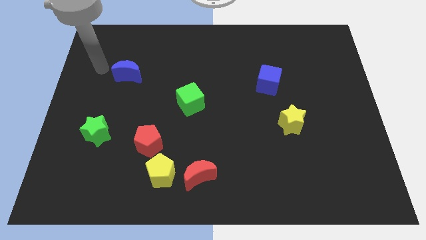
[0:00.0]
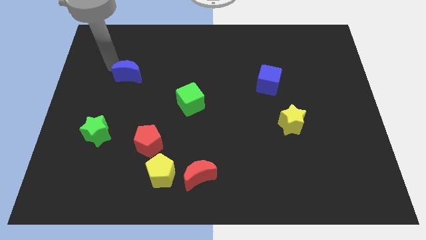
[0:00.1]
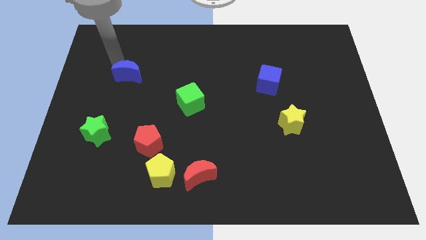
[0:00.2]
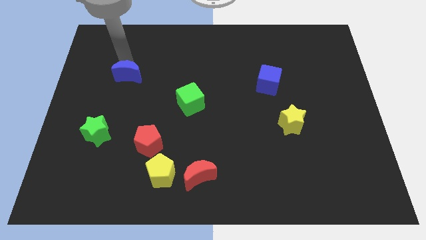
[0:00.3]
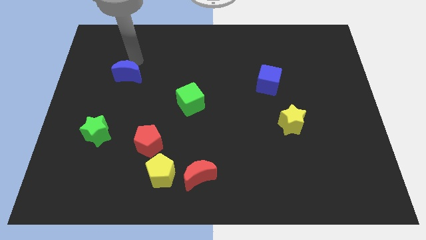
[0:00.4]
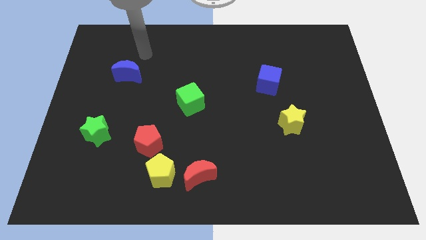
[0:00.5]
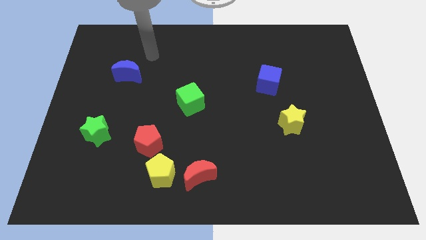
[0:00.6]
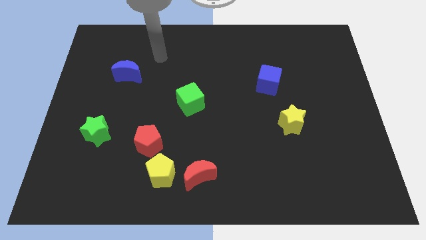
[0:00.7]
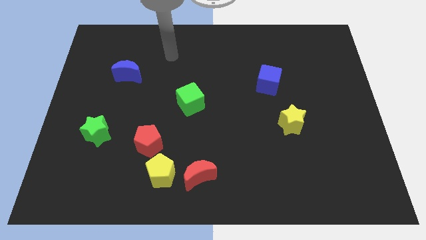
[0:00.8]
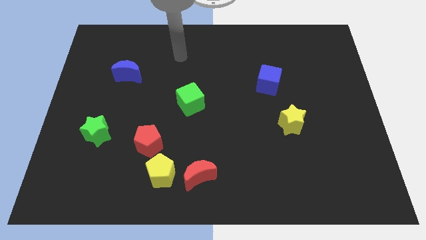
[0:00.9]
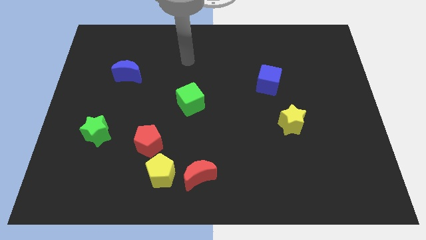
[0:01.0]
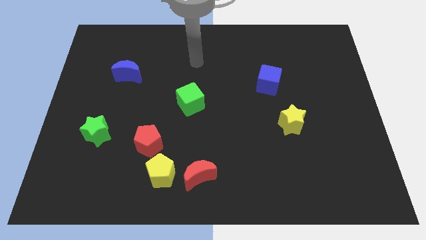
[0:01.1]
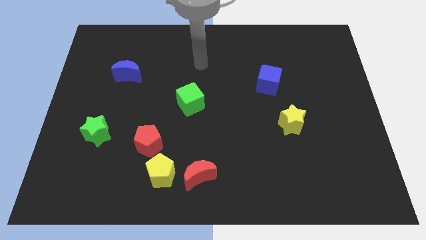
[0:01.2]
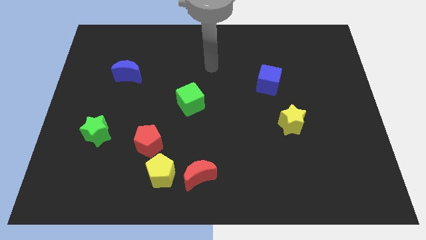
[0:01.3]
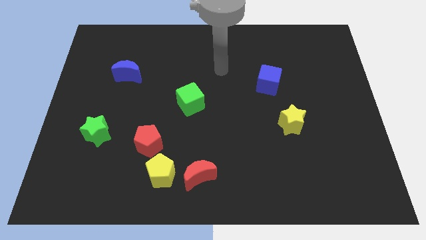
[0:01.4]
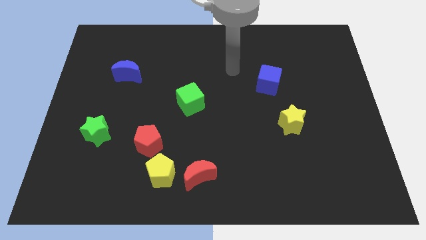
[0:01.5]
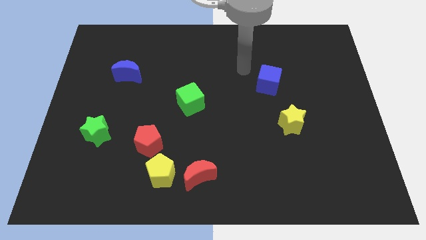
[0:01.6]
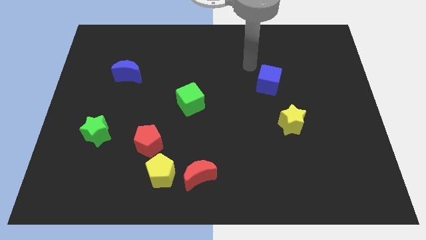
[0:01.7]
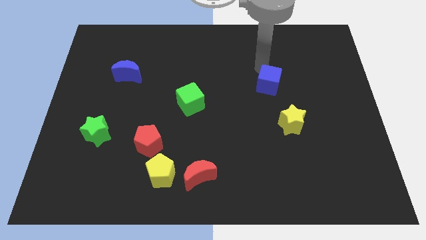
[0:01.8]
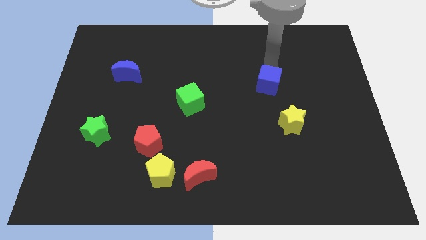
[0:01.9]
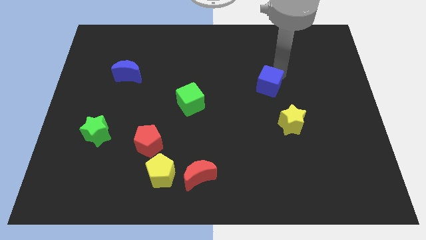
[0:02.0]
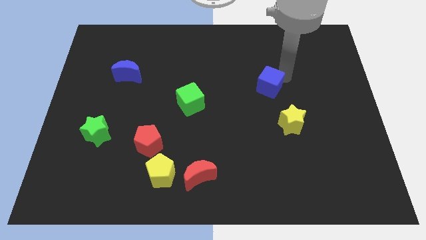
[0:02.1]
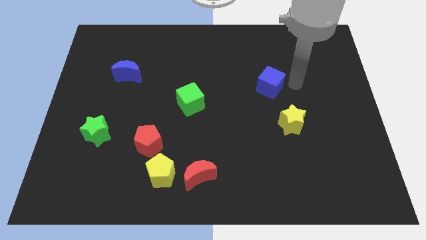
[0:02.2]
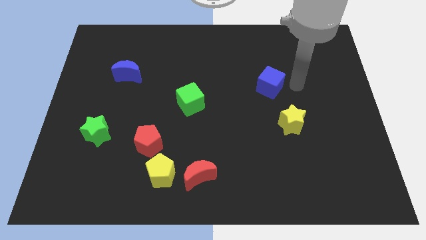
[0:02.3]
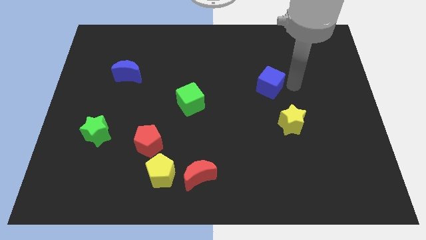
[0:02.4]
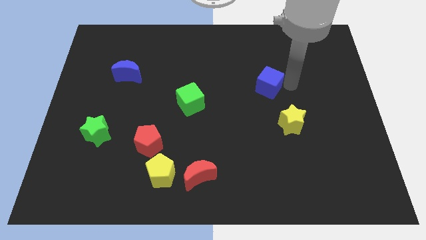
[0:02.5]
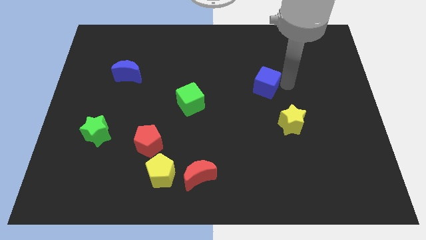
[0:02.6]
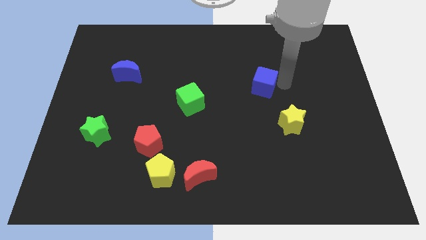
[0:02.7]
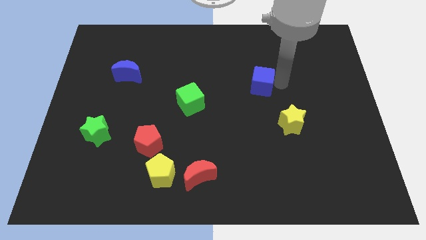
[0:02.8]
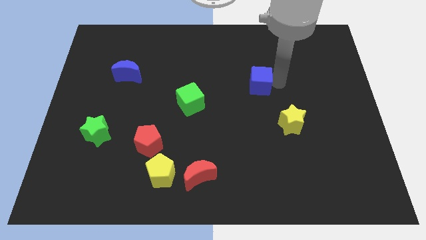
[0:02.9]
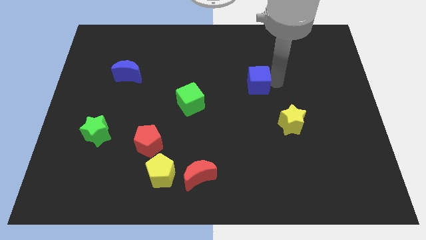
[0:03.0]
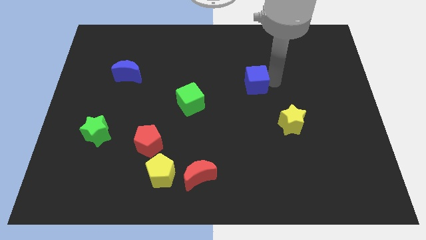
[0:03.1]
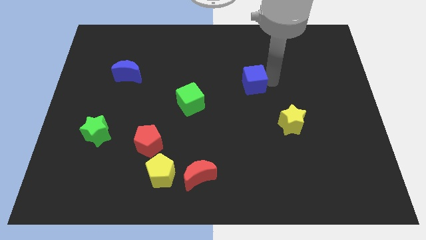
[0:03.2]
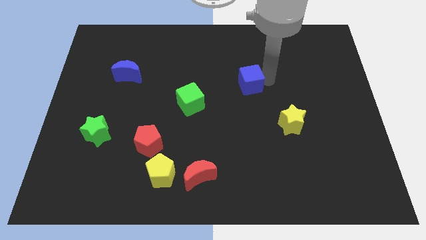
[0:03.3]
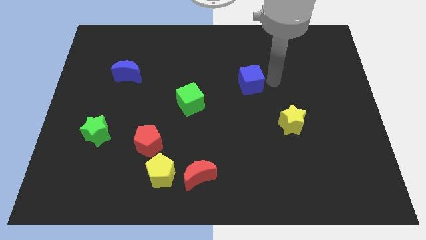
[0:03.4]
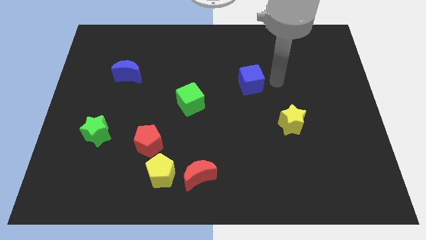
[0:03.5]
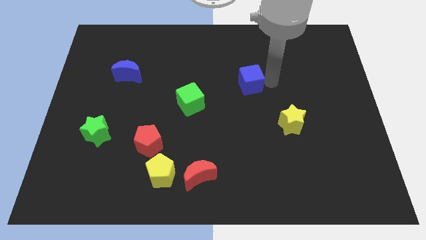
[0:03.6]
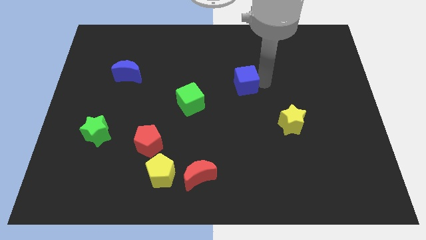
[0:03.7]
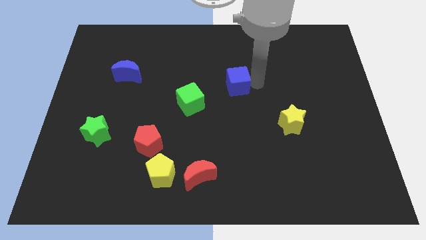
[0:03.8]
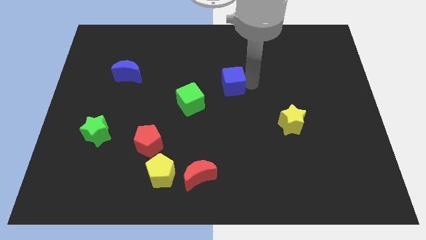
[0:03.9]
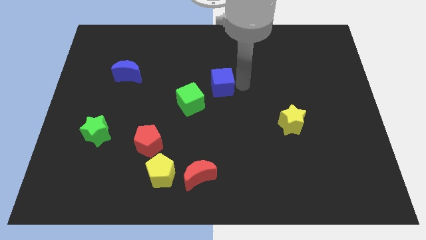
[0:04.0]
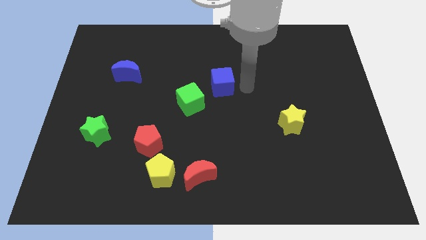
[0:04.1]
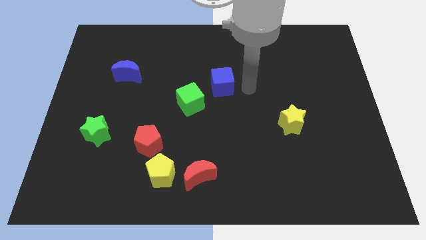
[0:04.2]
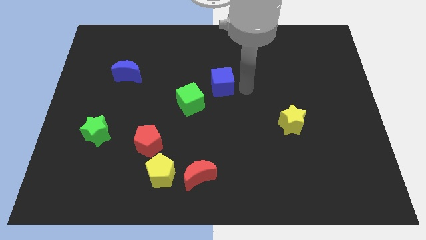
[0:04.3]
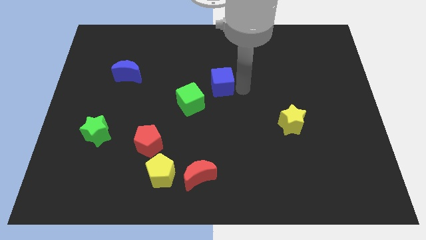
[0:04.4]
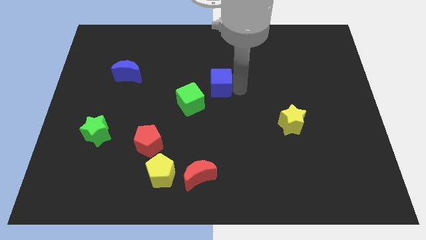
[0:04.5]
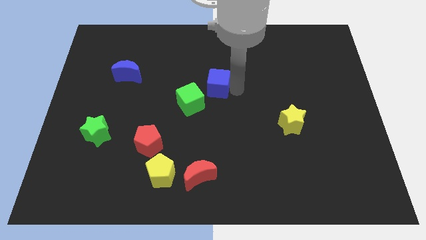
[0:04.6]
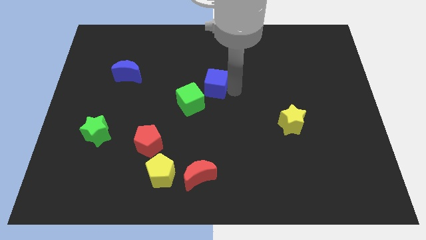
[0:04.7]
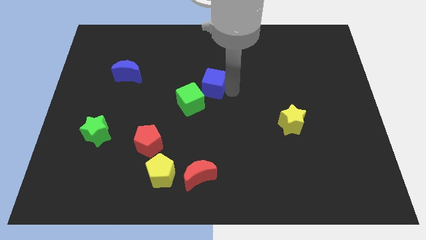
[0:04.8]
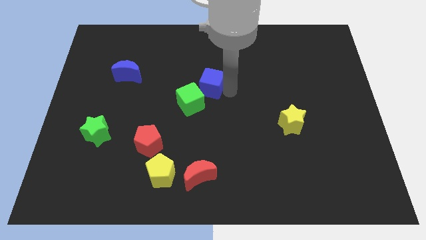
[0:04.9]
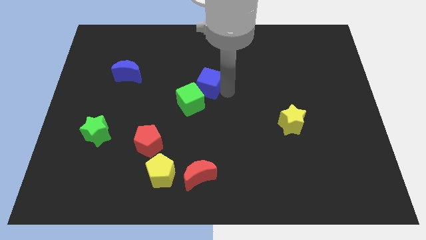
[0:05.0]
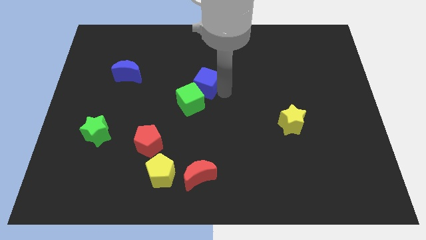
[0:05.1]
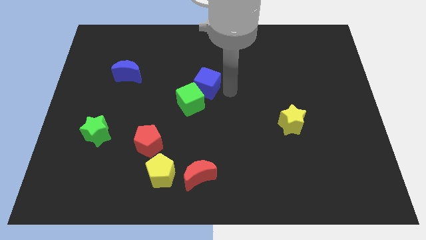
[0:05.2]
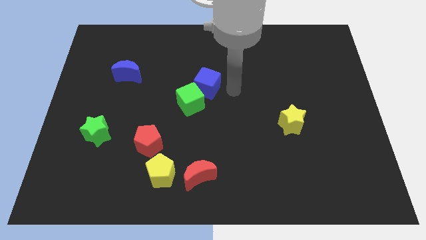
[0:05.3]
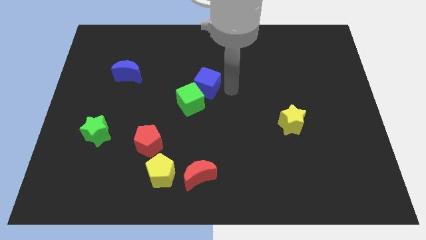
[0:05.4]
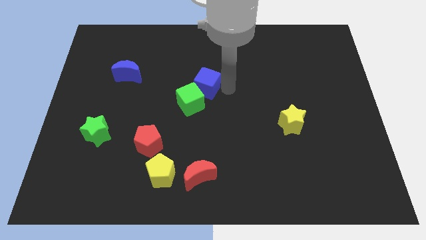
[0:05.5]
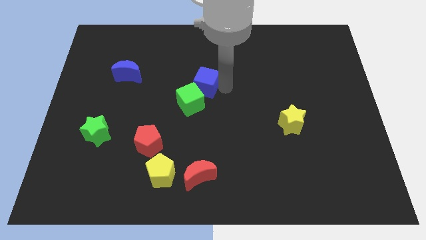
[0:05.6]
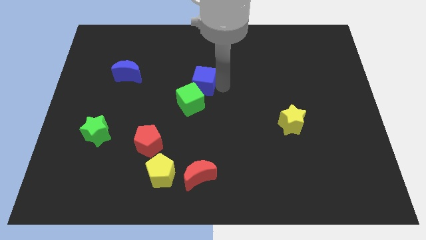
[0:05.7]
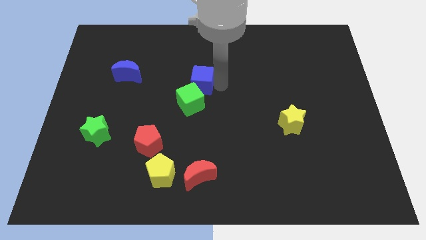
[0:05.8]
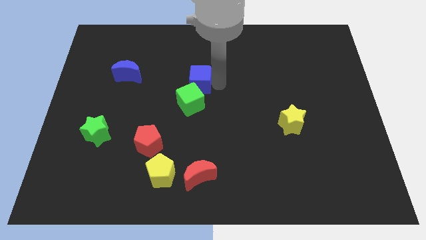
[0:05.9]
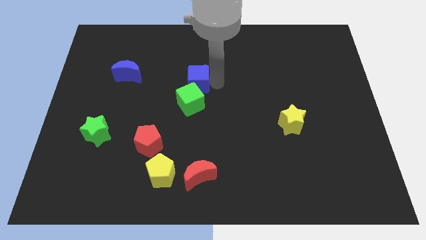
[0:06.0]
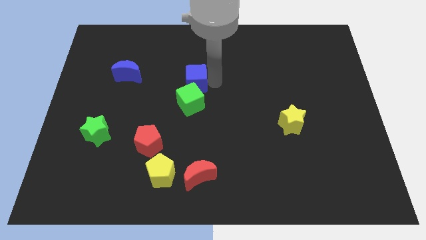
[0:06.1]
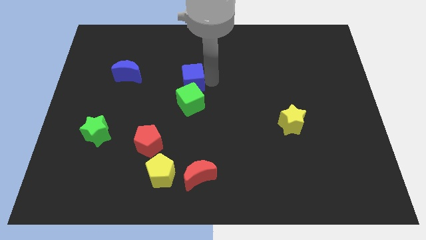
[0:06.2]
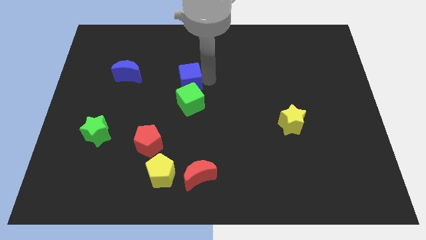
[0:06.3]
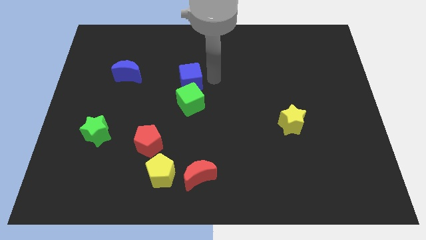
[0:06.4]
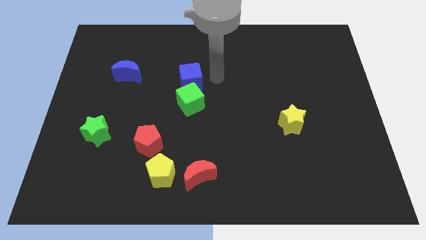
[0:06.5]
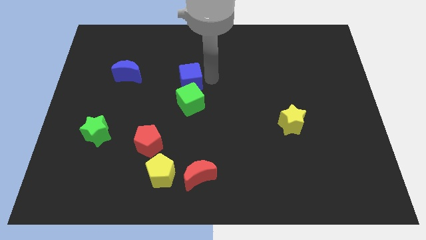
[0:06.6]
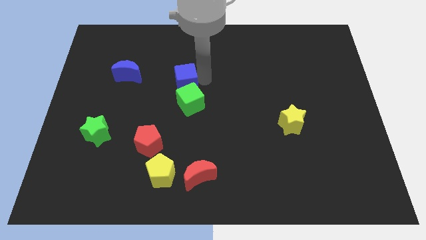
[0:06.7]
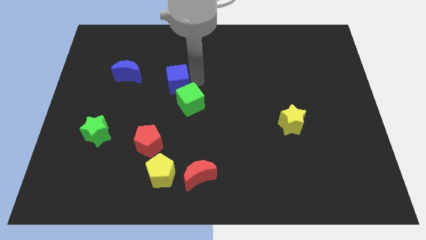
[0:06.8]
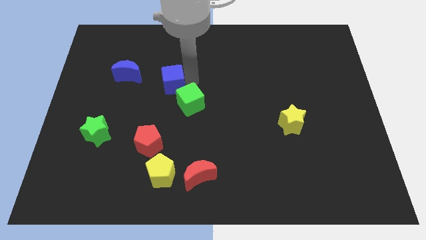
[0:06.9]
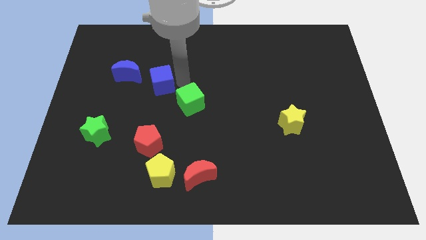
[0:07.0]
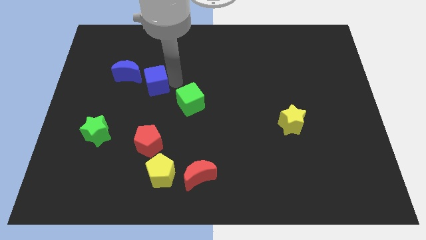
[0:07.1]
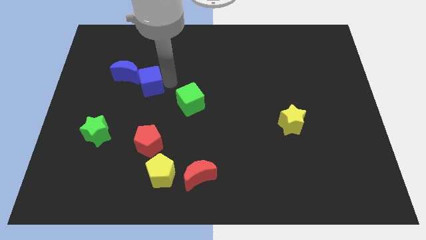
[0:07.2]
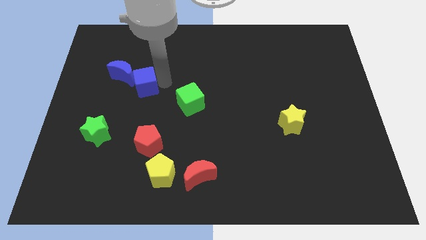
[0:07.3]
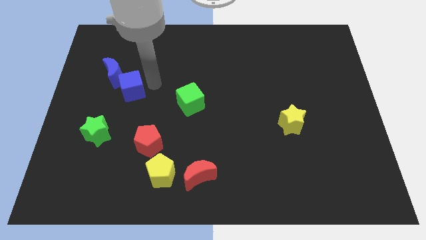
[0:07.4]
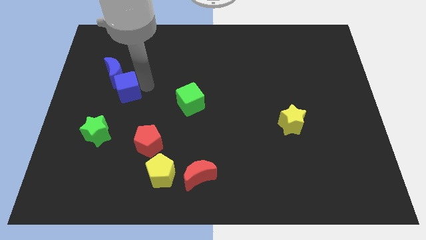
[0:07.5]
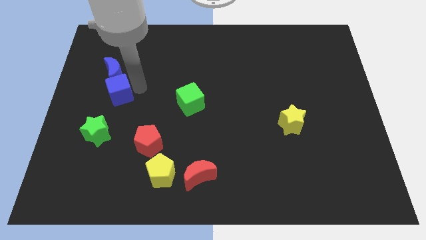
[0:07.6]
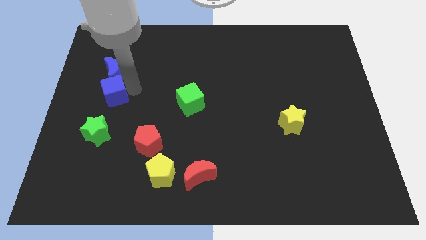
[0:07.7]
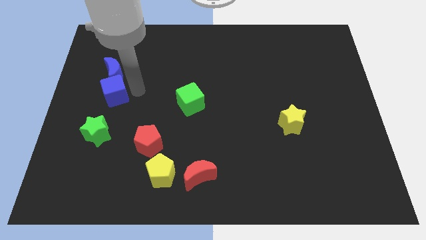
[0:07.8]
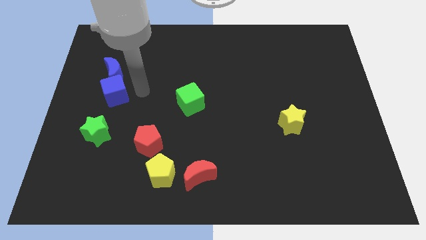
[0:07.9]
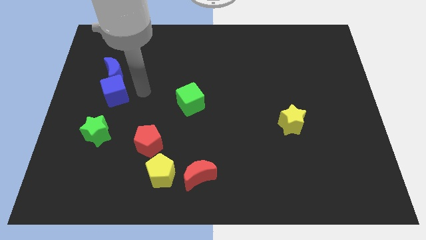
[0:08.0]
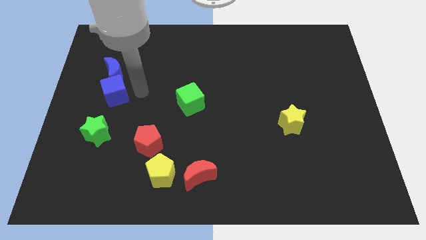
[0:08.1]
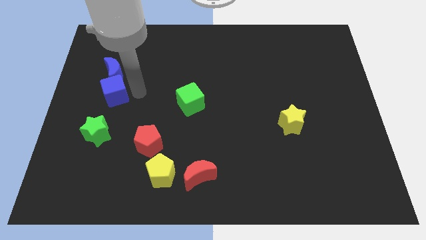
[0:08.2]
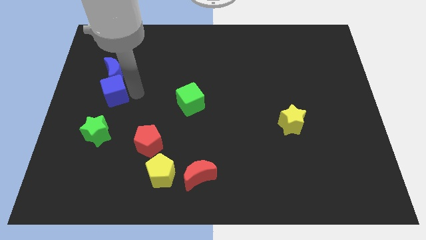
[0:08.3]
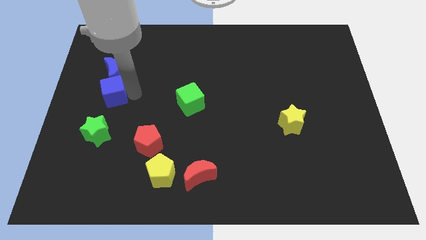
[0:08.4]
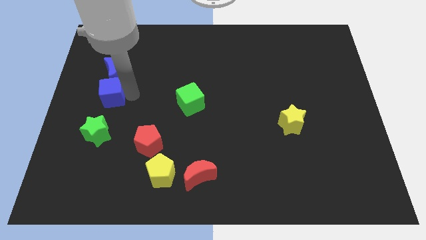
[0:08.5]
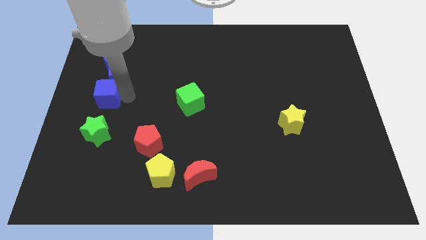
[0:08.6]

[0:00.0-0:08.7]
put the blue cube to the left side of the board
